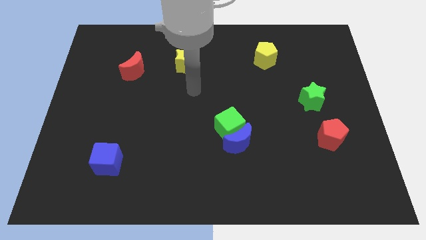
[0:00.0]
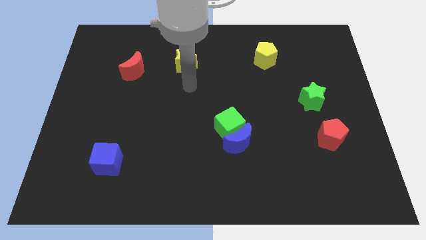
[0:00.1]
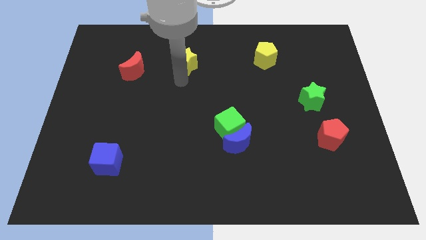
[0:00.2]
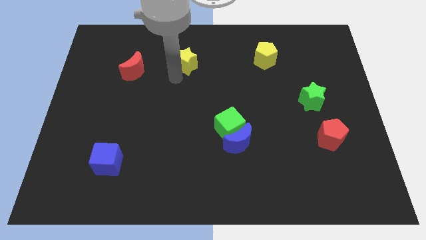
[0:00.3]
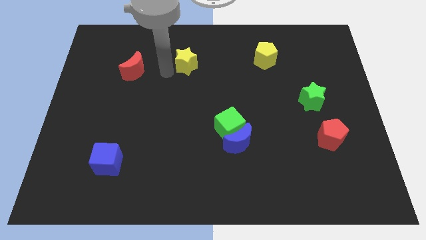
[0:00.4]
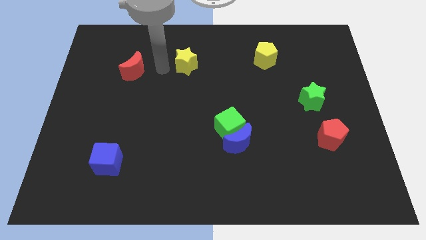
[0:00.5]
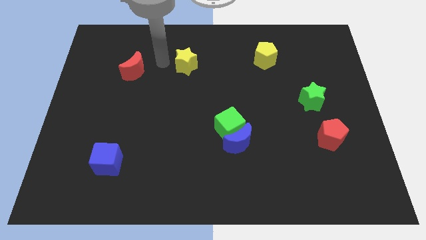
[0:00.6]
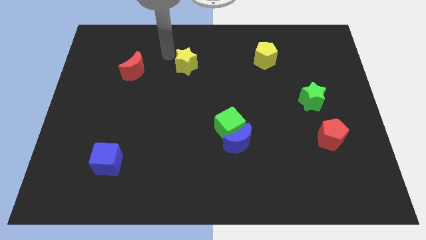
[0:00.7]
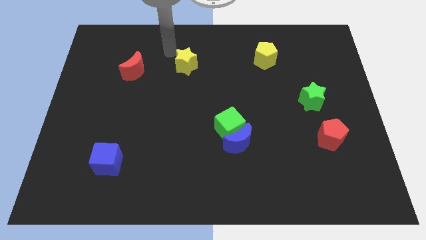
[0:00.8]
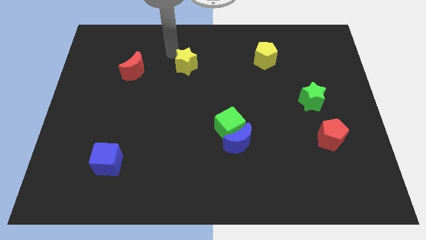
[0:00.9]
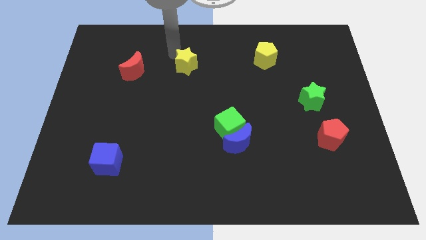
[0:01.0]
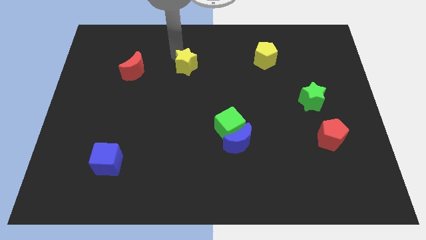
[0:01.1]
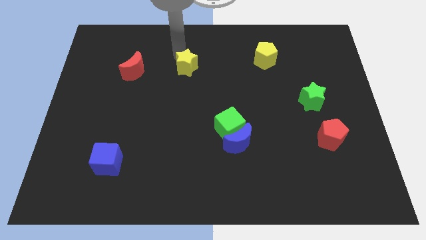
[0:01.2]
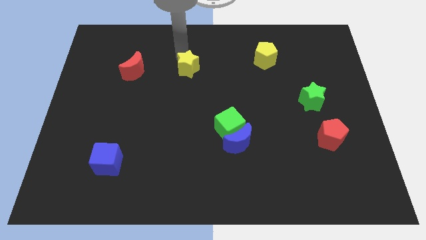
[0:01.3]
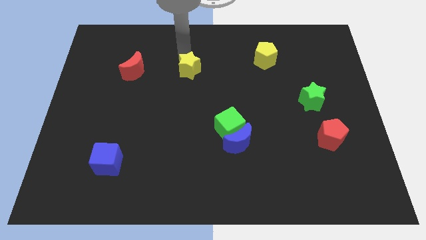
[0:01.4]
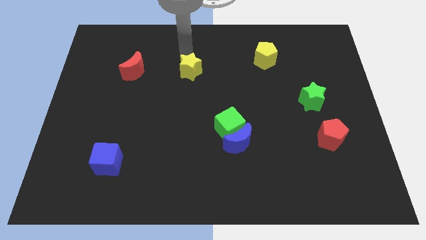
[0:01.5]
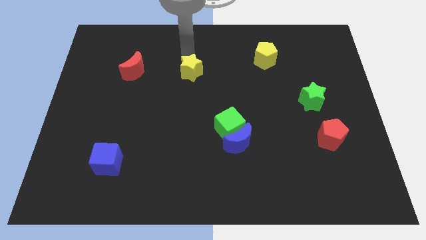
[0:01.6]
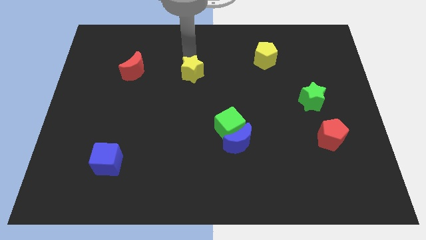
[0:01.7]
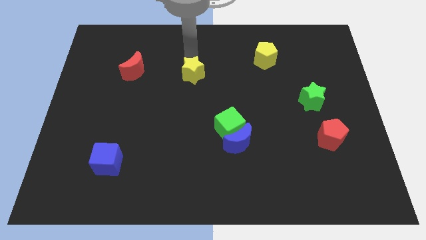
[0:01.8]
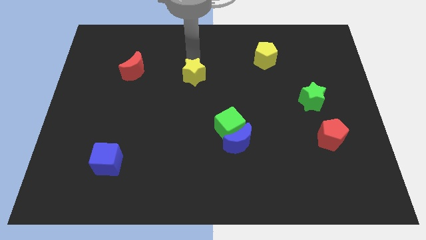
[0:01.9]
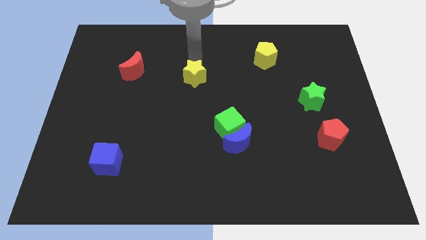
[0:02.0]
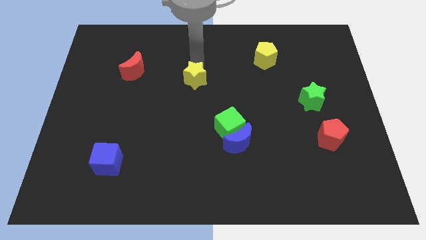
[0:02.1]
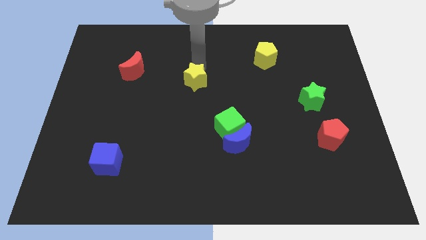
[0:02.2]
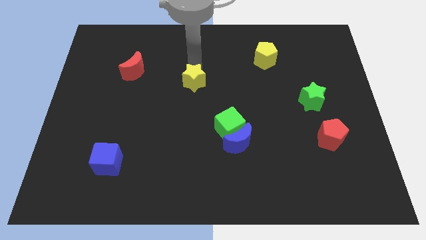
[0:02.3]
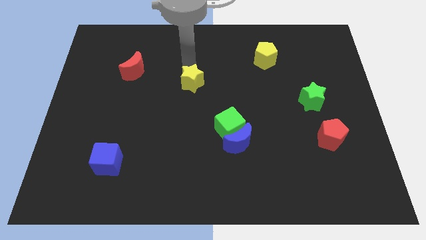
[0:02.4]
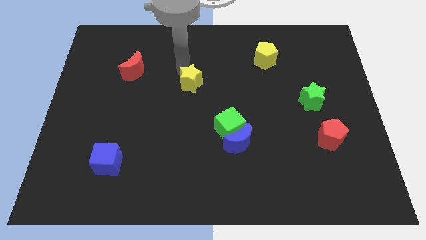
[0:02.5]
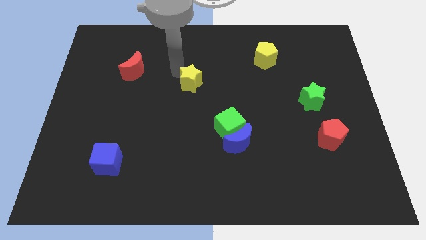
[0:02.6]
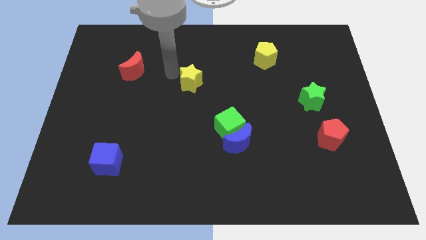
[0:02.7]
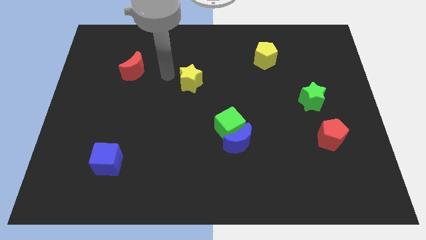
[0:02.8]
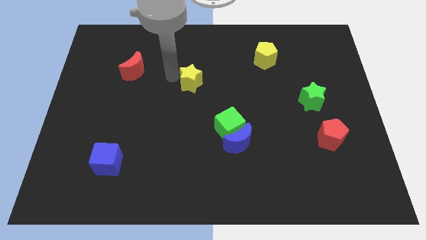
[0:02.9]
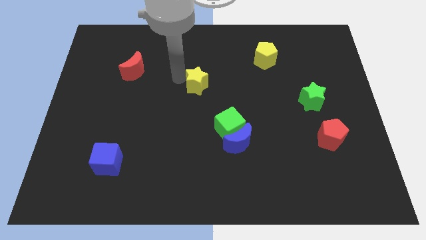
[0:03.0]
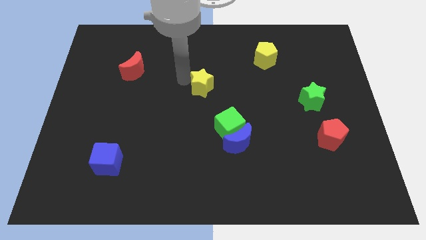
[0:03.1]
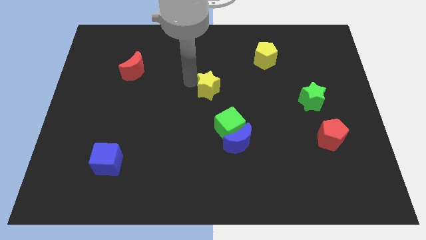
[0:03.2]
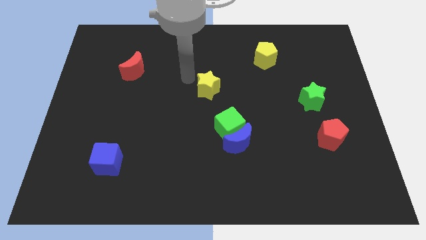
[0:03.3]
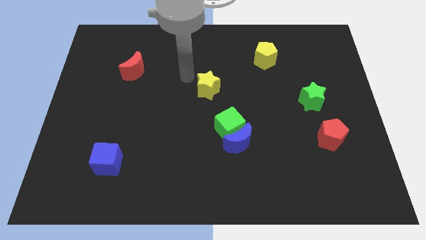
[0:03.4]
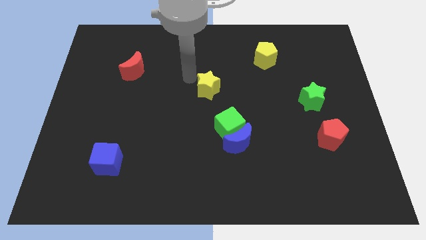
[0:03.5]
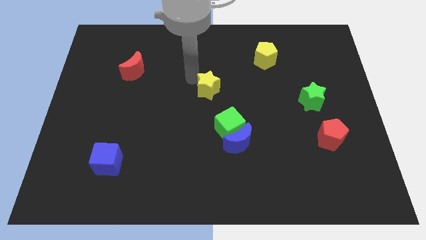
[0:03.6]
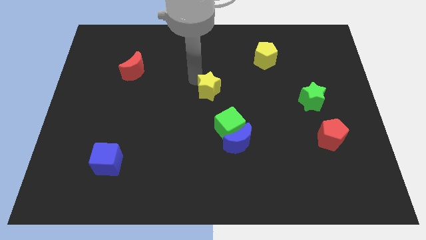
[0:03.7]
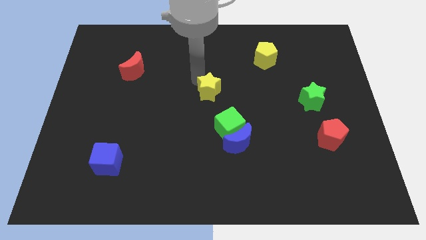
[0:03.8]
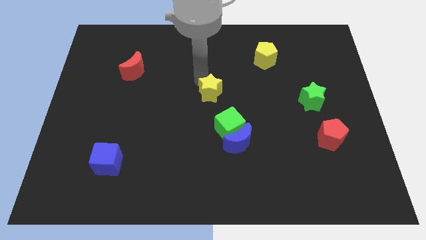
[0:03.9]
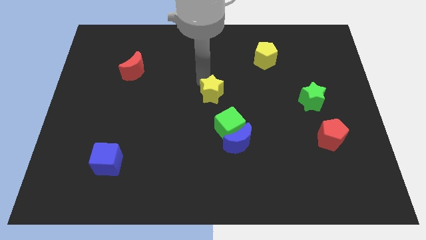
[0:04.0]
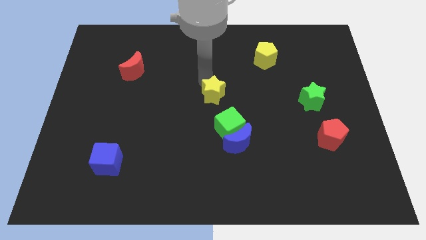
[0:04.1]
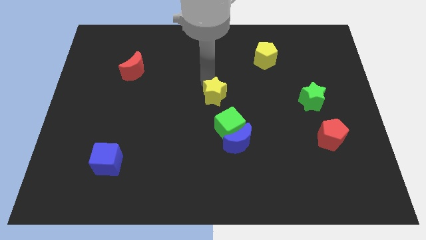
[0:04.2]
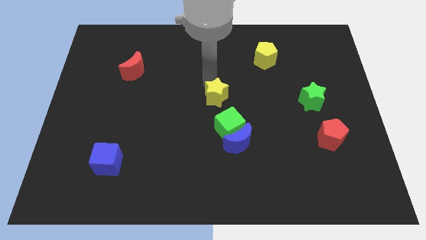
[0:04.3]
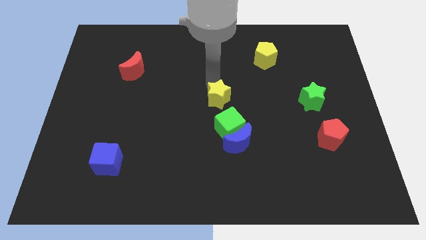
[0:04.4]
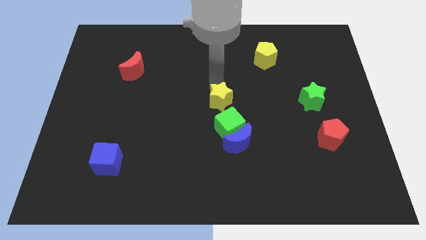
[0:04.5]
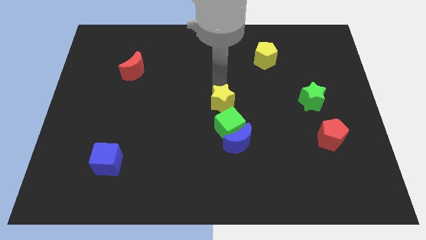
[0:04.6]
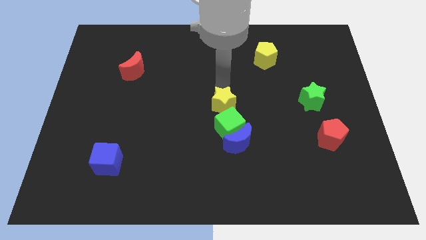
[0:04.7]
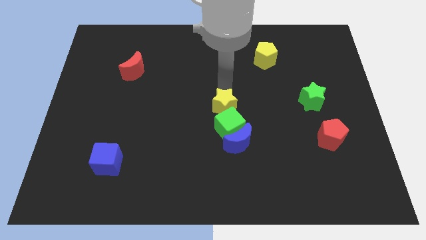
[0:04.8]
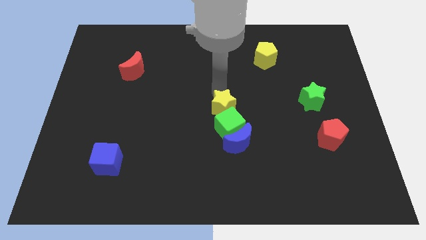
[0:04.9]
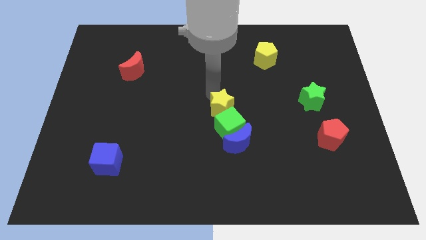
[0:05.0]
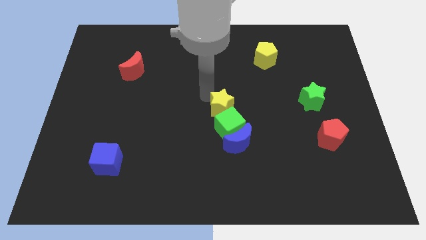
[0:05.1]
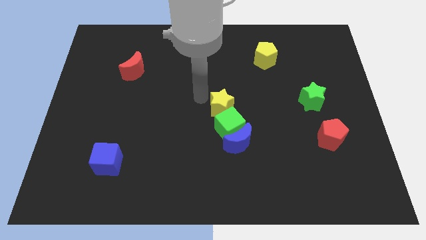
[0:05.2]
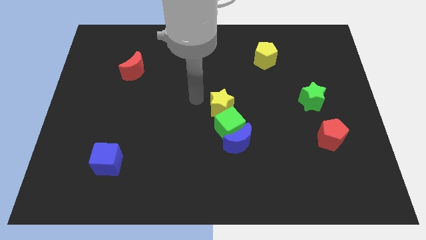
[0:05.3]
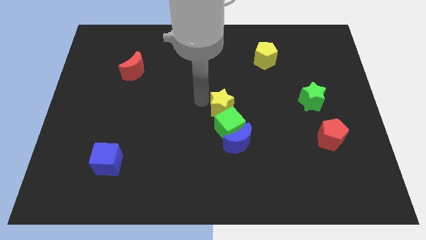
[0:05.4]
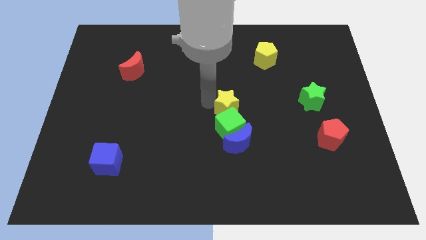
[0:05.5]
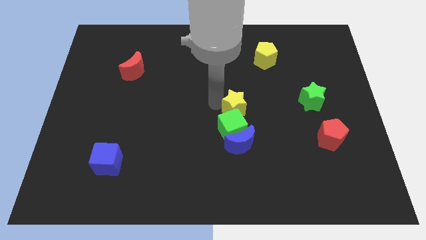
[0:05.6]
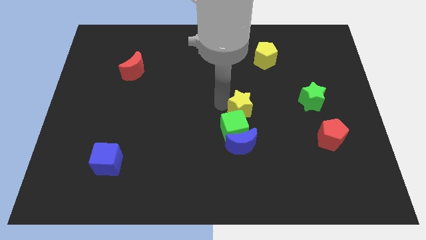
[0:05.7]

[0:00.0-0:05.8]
slide the yellow star diagonally down and right

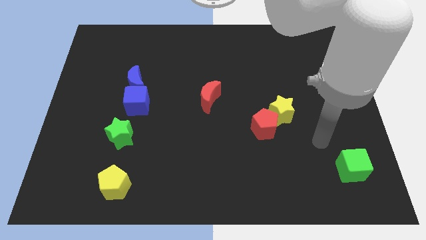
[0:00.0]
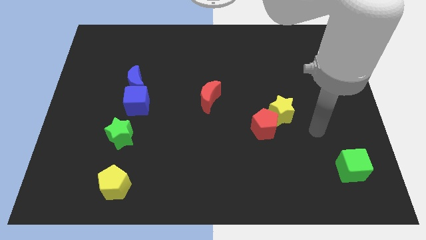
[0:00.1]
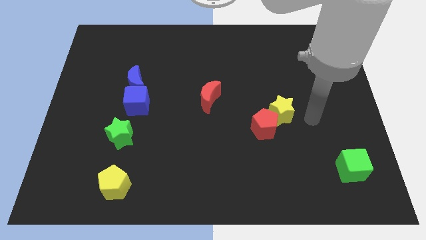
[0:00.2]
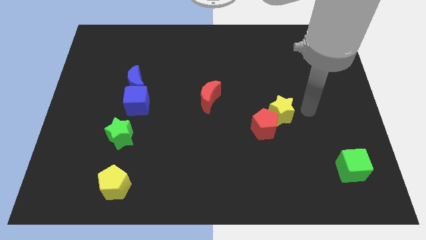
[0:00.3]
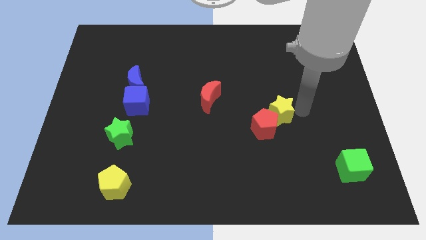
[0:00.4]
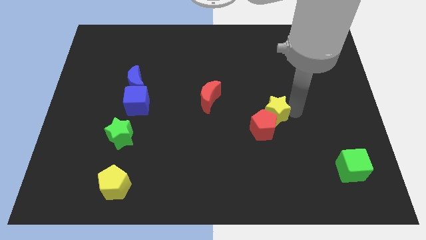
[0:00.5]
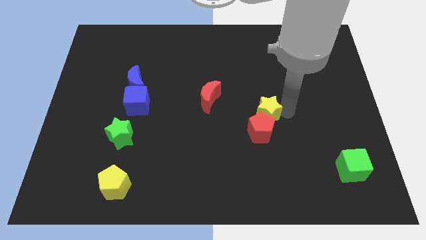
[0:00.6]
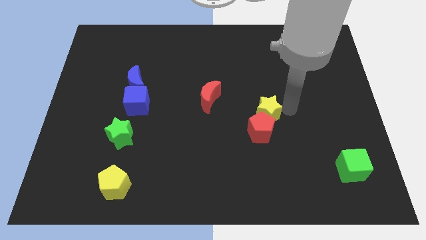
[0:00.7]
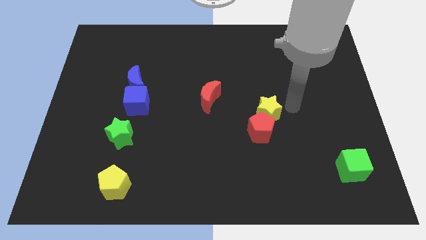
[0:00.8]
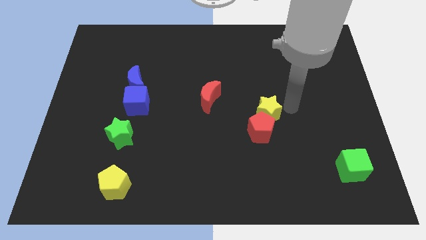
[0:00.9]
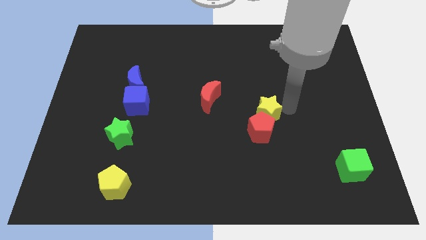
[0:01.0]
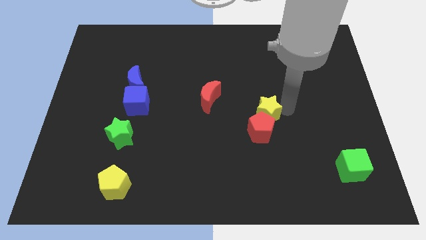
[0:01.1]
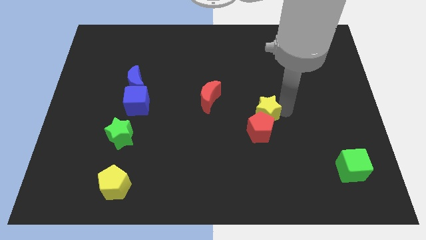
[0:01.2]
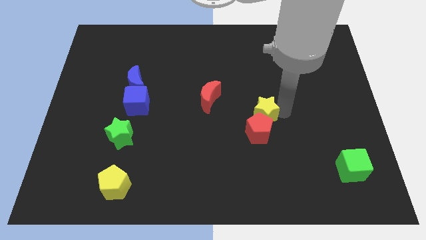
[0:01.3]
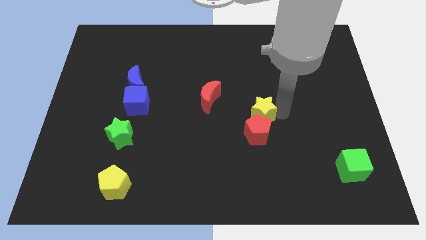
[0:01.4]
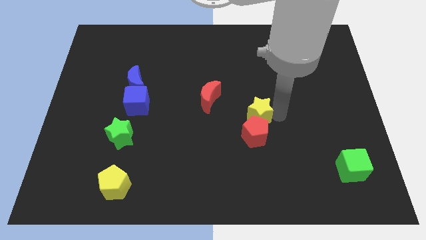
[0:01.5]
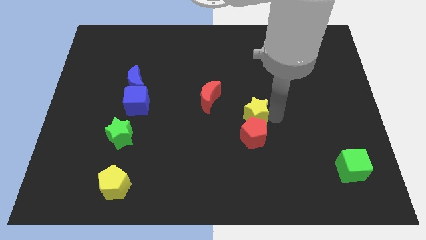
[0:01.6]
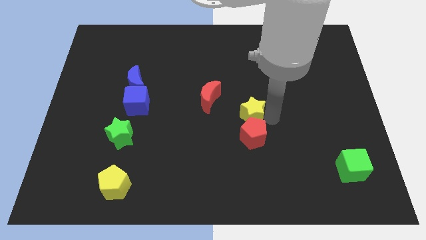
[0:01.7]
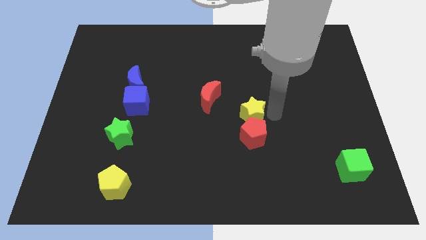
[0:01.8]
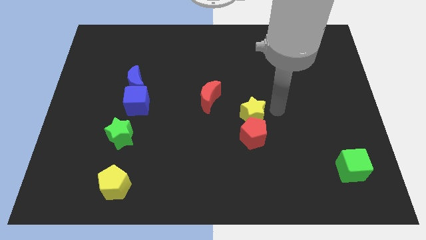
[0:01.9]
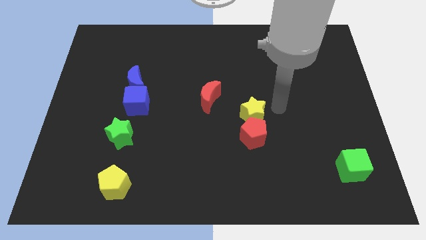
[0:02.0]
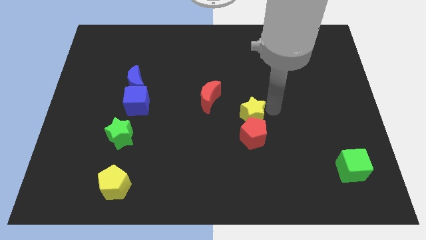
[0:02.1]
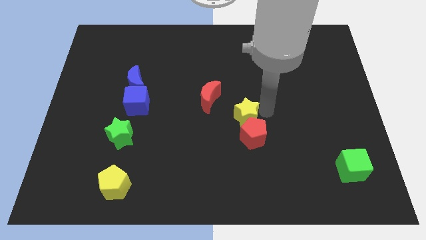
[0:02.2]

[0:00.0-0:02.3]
move the yellow star a little left
